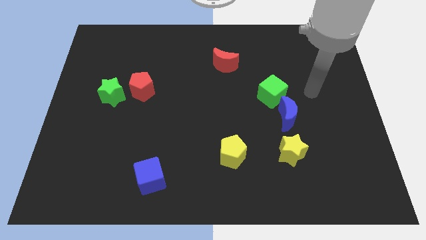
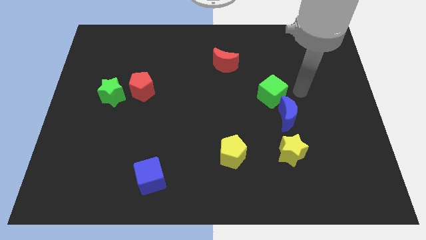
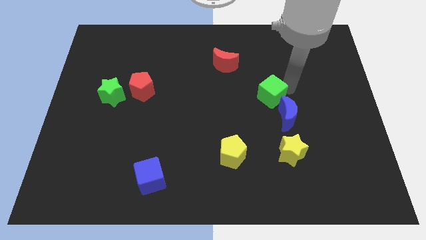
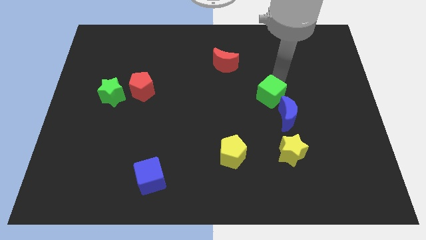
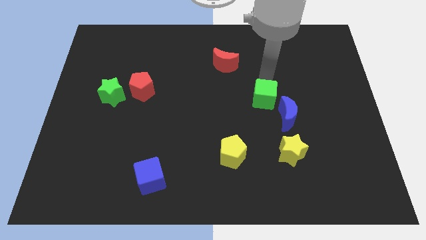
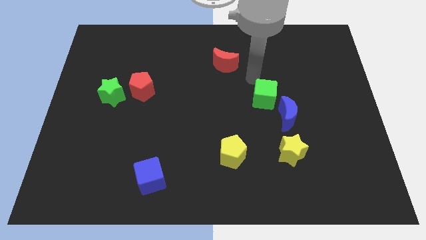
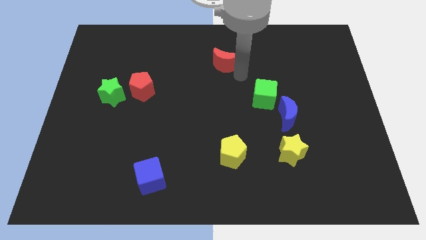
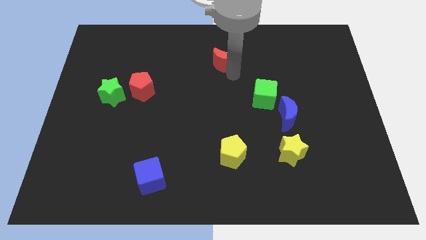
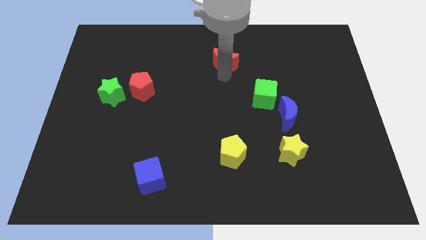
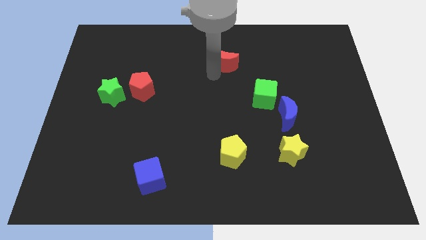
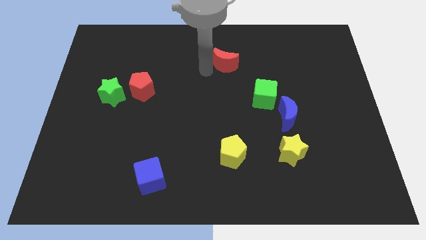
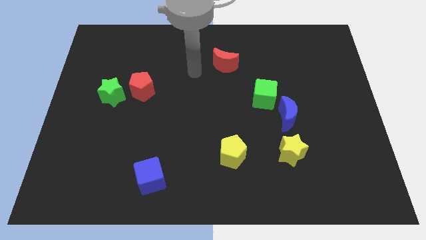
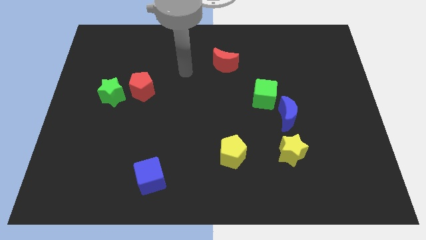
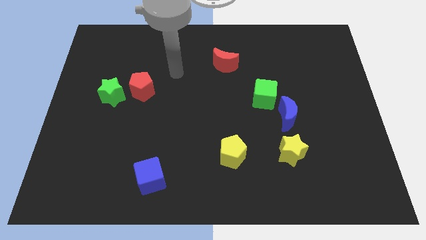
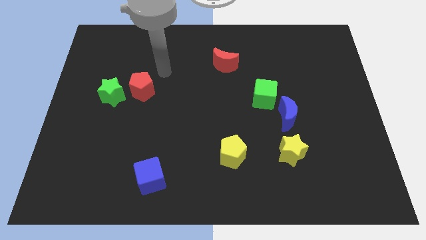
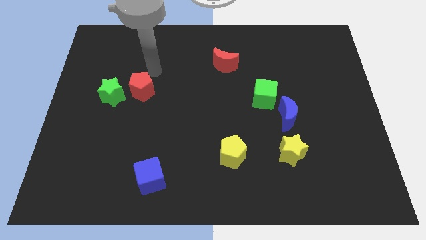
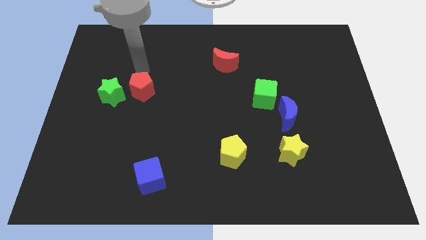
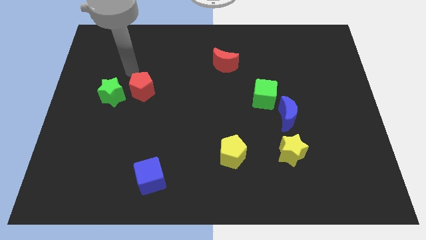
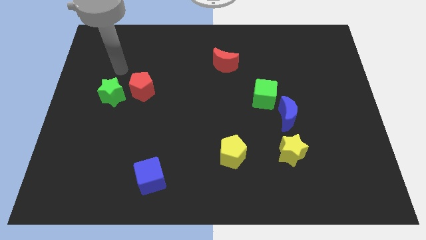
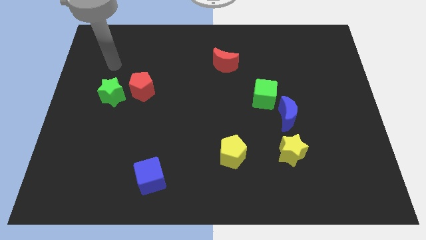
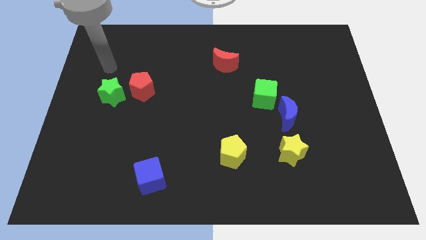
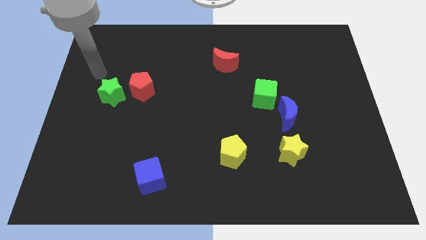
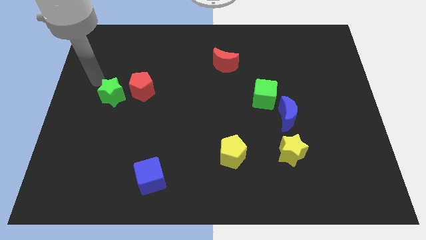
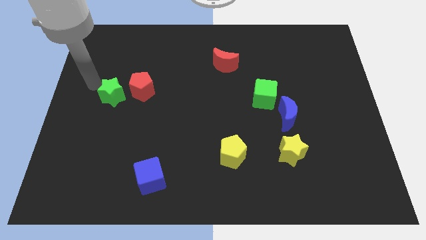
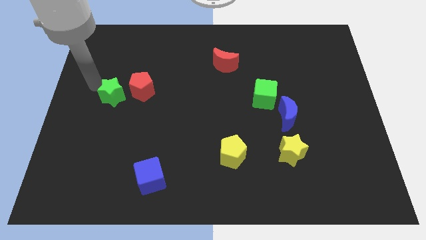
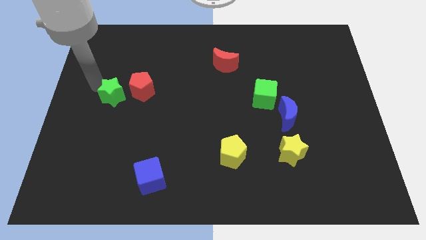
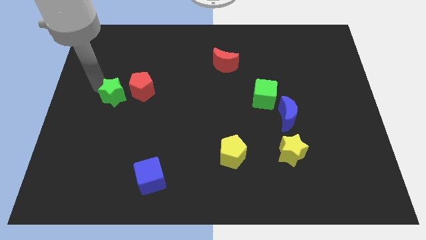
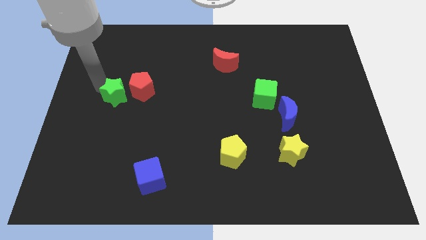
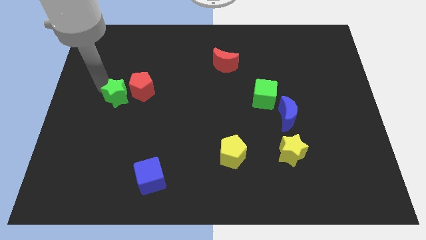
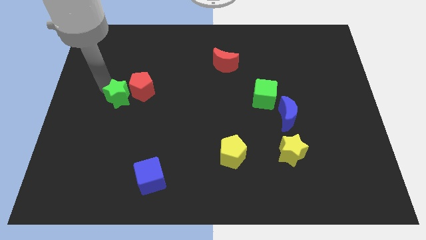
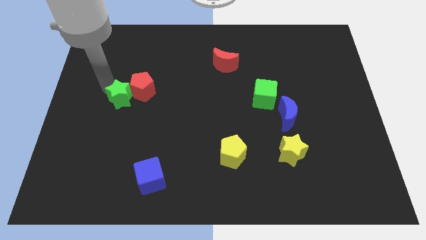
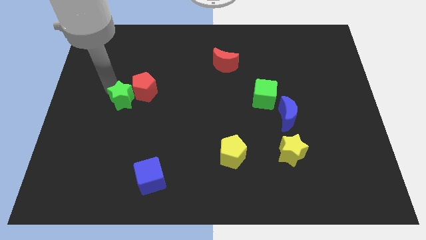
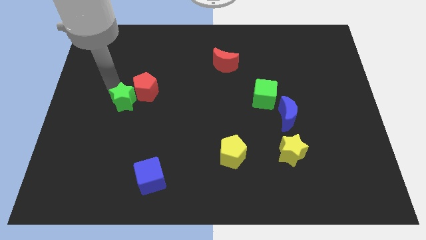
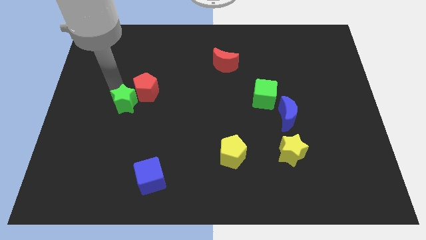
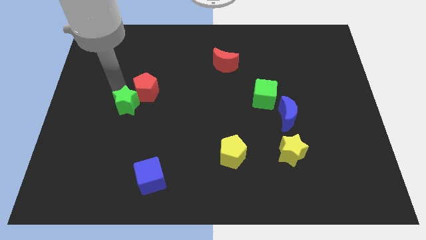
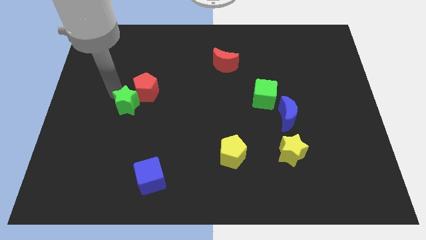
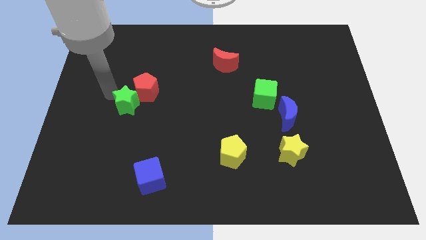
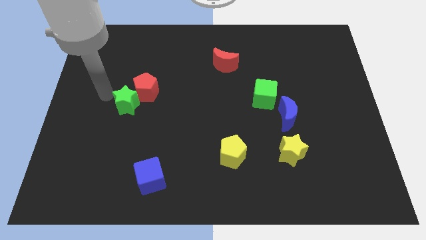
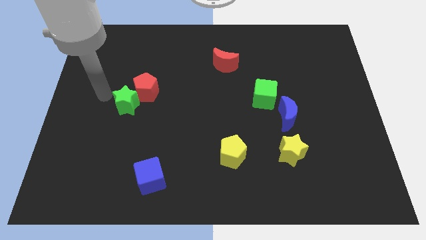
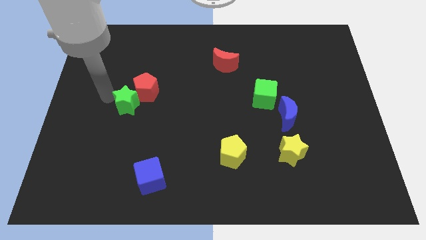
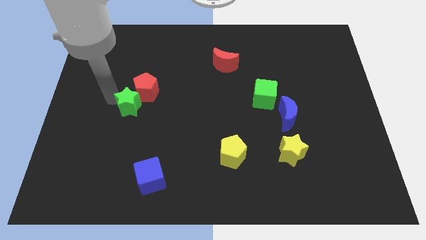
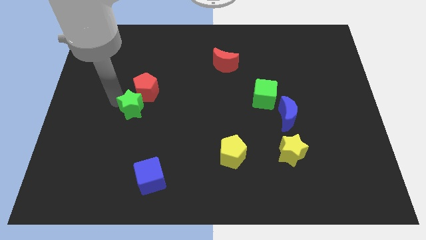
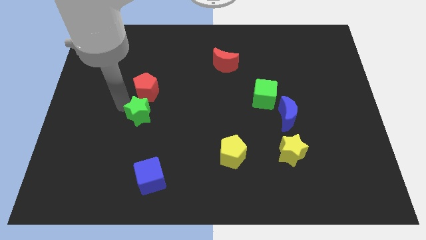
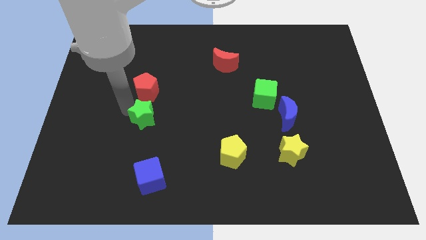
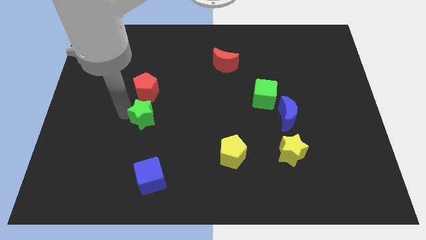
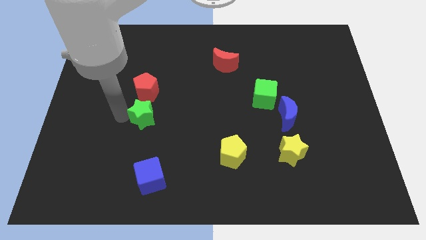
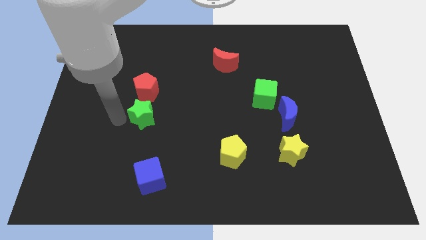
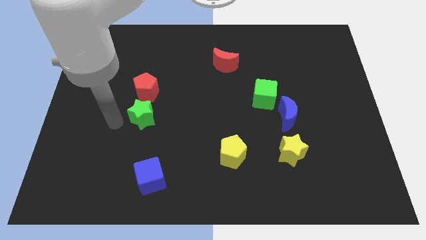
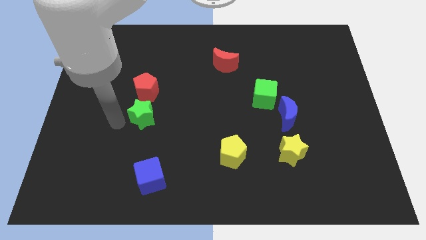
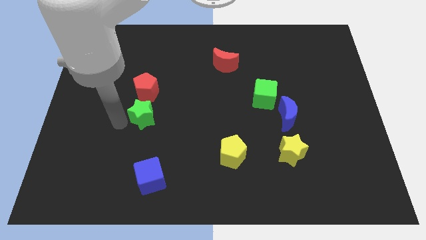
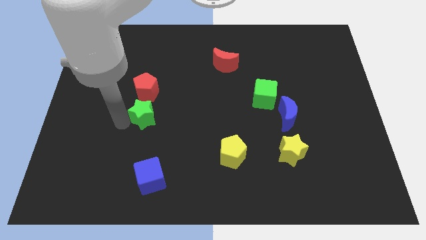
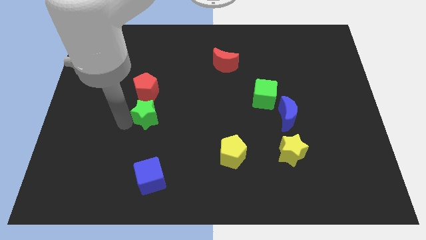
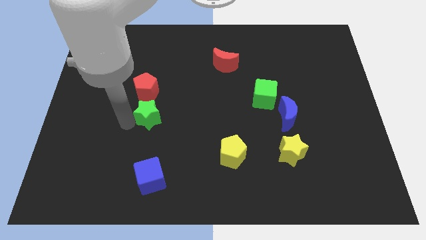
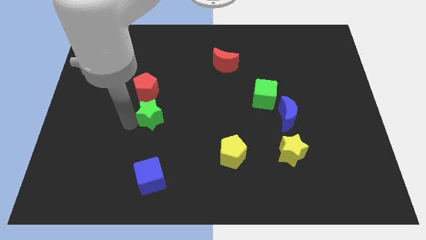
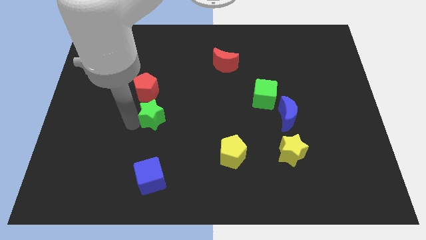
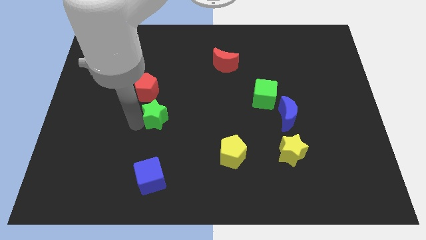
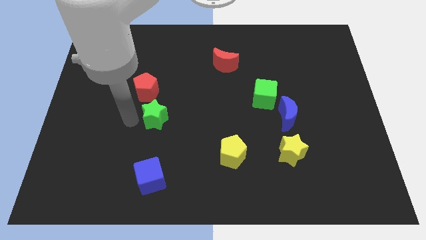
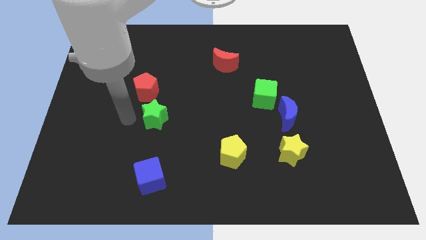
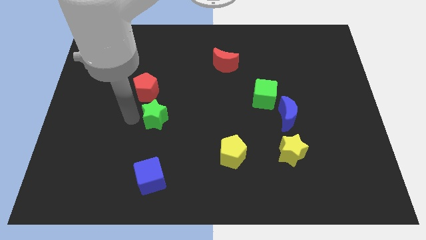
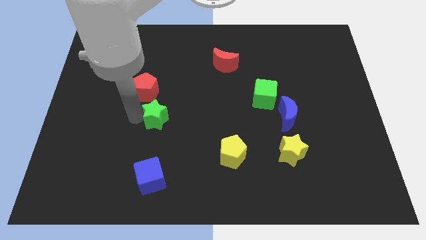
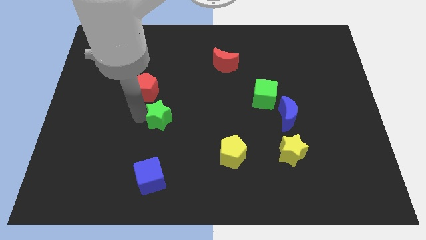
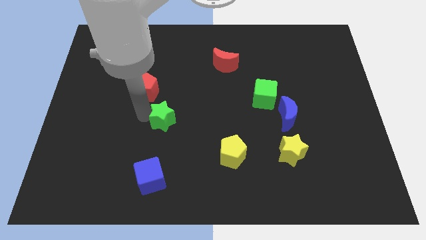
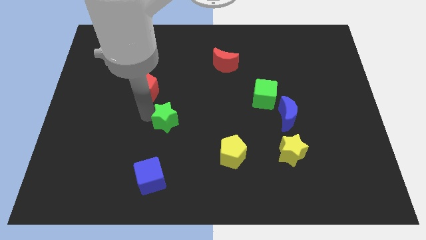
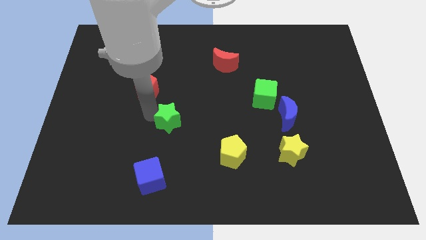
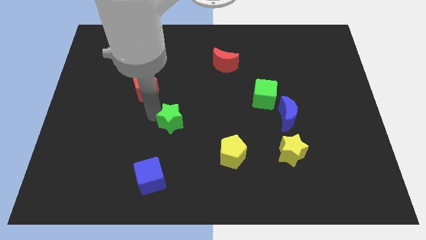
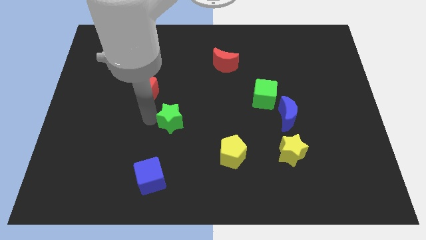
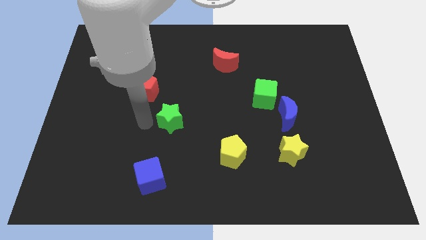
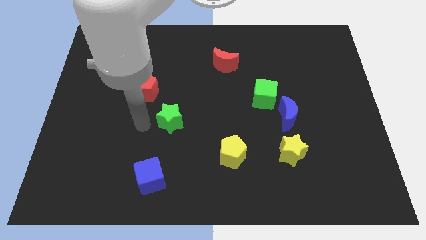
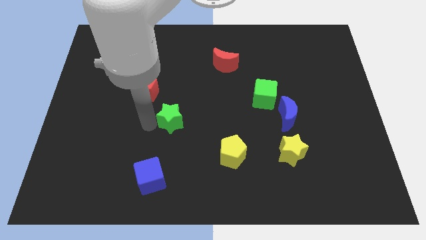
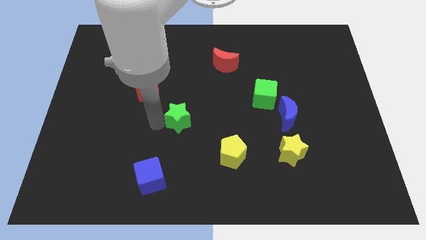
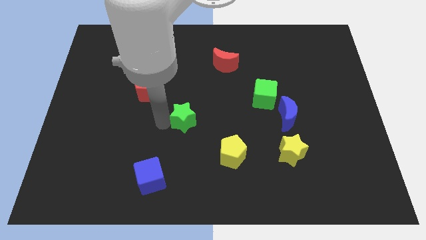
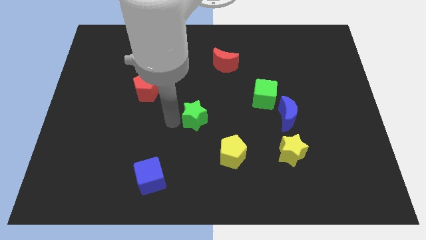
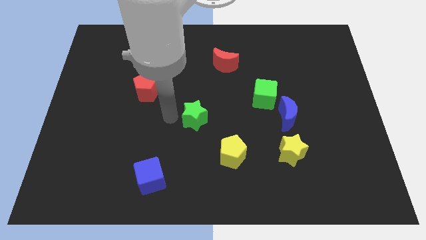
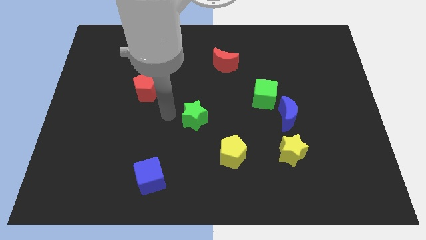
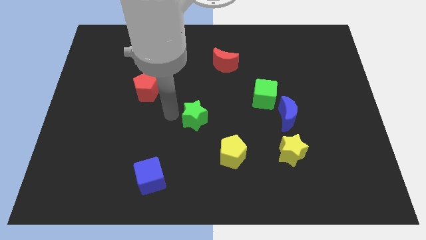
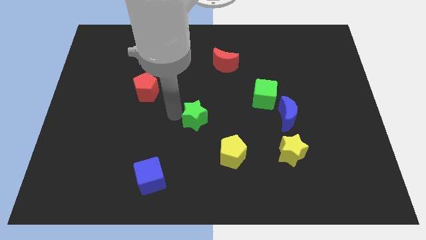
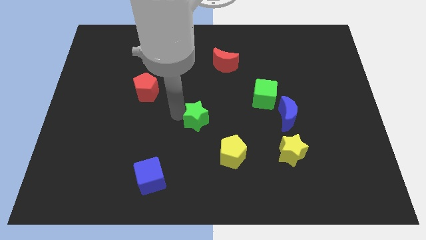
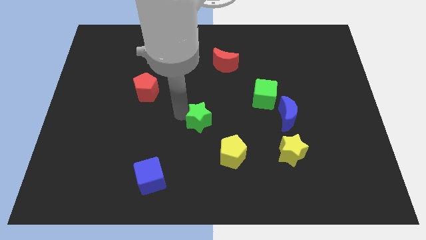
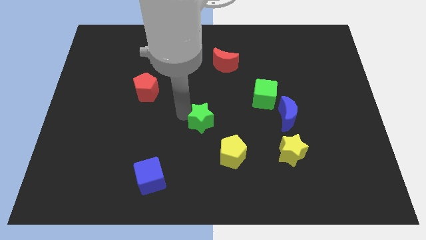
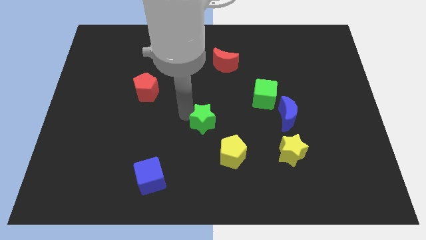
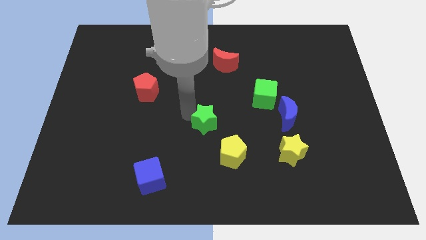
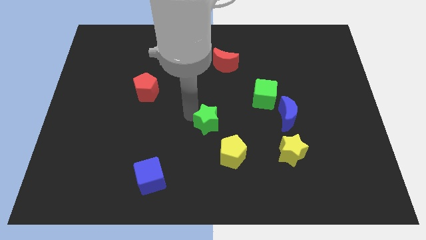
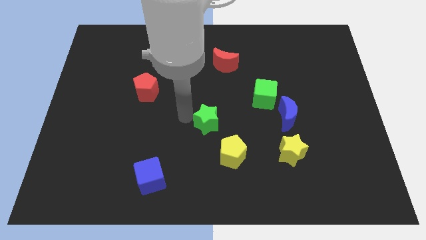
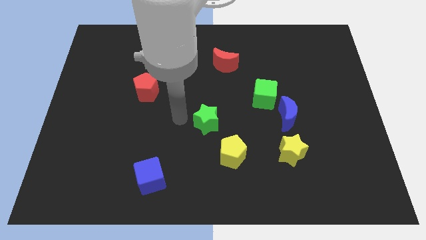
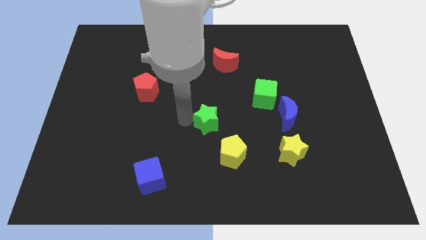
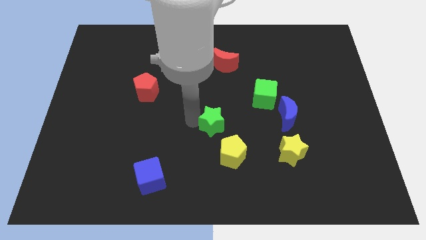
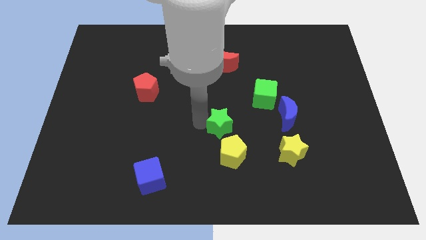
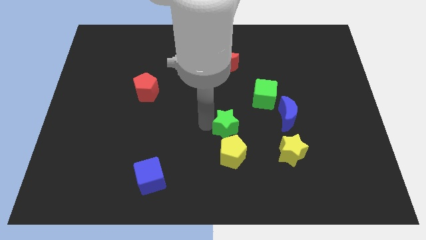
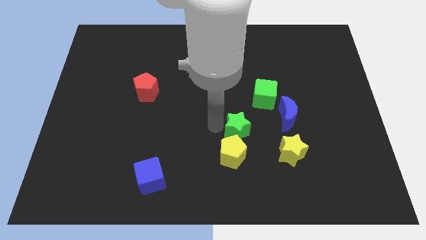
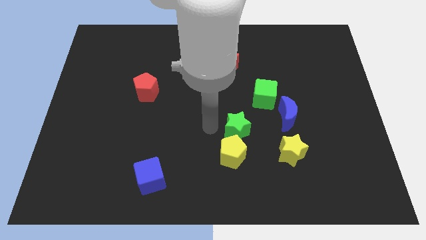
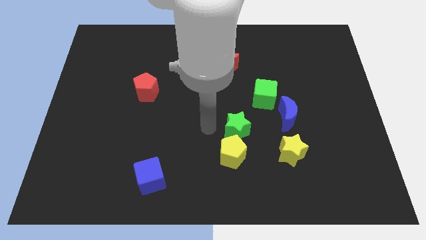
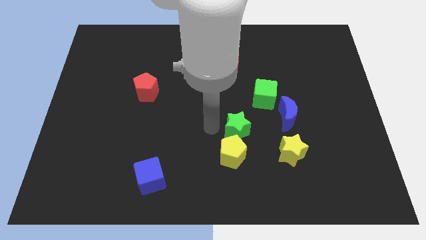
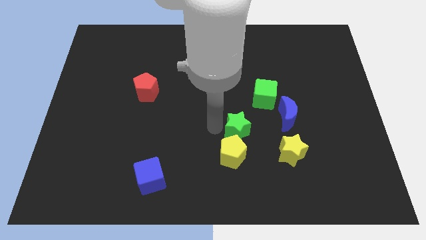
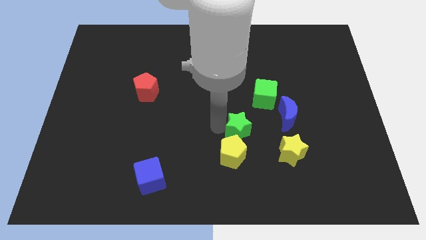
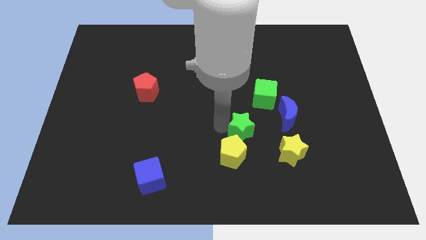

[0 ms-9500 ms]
move the green star to the top left of the yellow star
